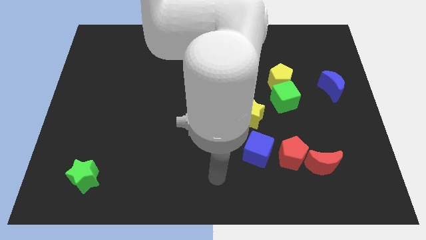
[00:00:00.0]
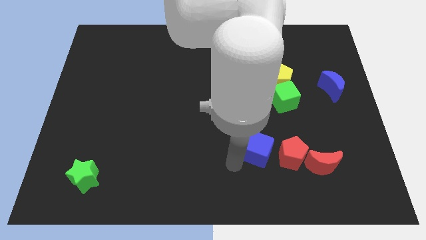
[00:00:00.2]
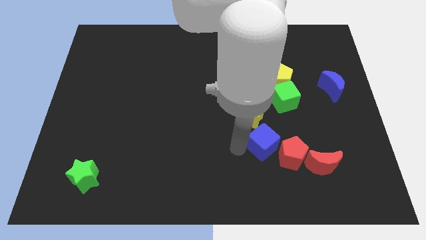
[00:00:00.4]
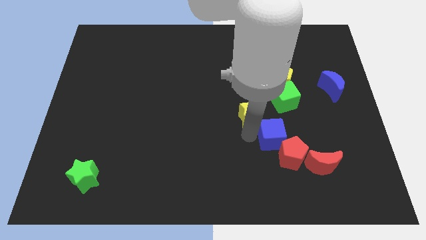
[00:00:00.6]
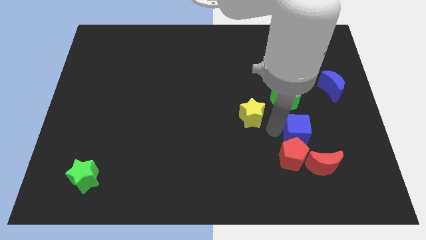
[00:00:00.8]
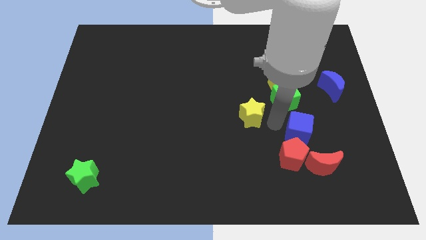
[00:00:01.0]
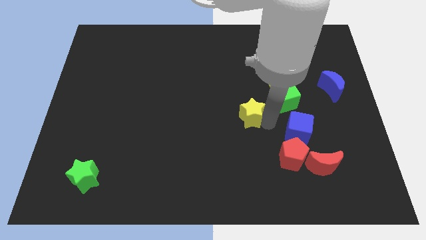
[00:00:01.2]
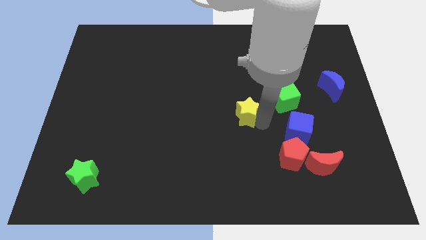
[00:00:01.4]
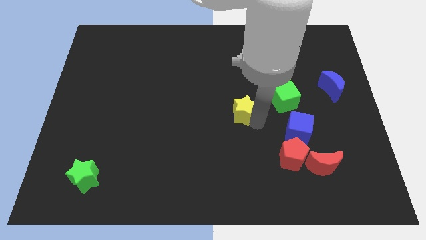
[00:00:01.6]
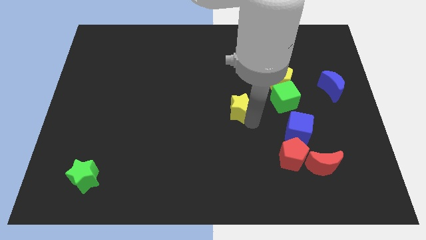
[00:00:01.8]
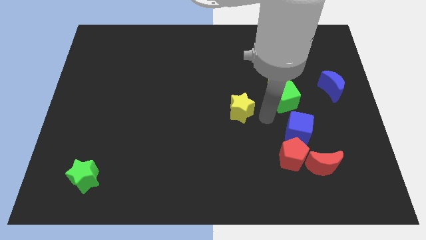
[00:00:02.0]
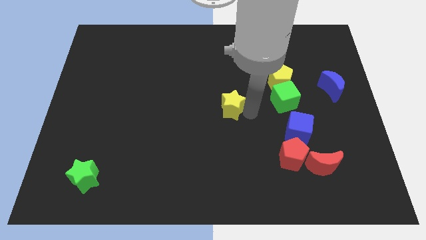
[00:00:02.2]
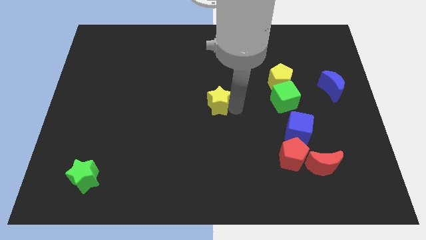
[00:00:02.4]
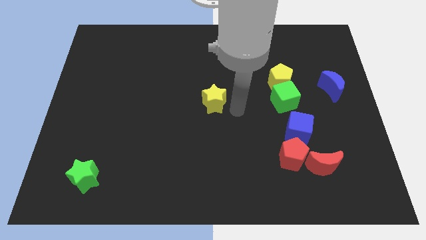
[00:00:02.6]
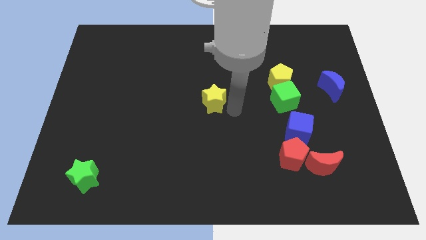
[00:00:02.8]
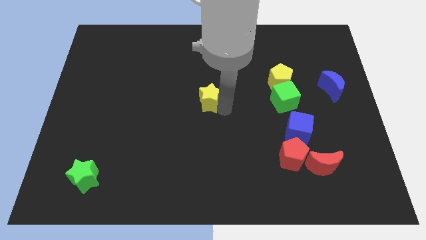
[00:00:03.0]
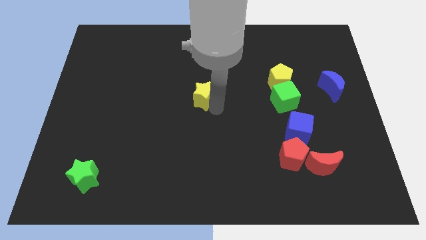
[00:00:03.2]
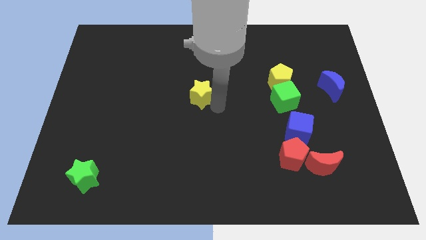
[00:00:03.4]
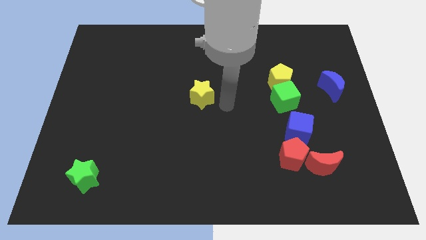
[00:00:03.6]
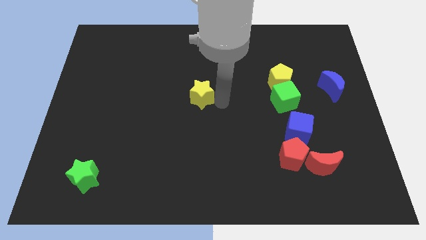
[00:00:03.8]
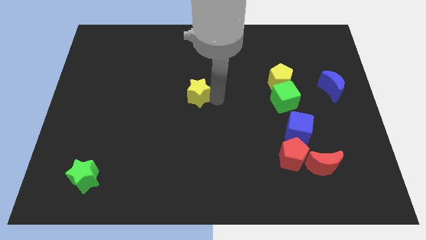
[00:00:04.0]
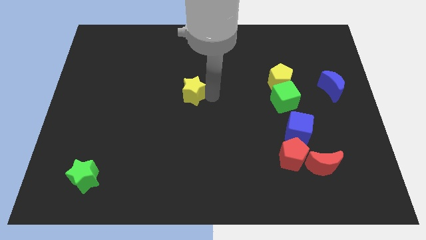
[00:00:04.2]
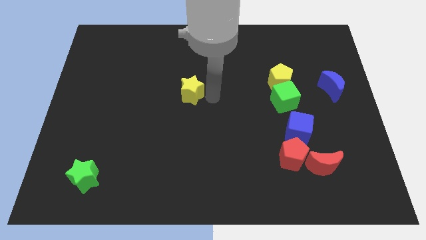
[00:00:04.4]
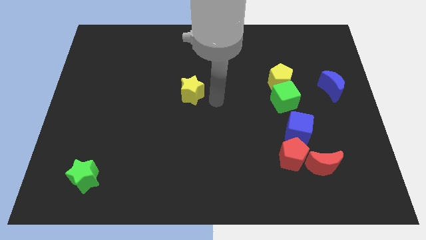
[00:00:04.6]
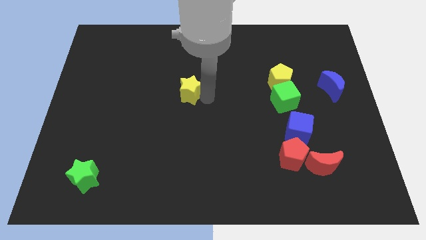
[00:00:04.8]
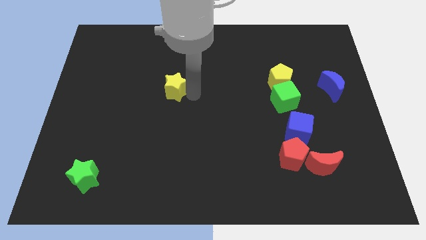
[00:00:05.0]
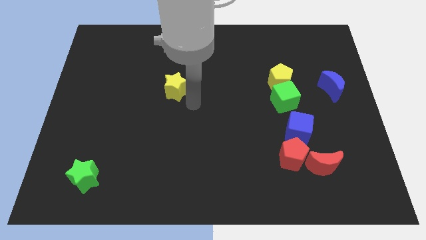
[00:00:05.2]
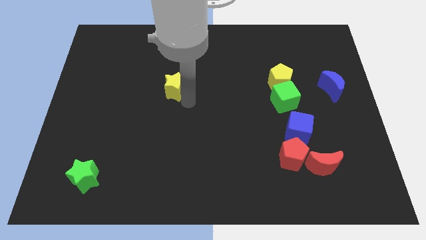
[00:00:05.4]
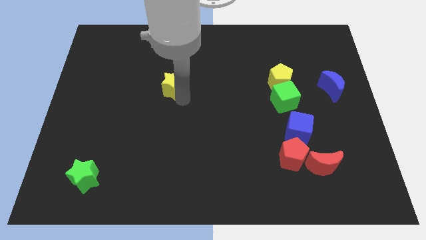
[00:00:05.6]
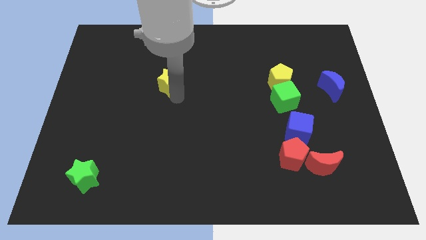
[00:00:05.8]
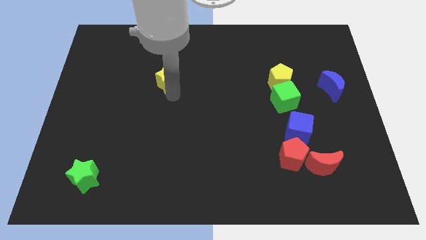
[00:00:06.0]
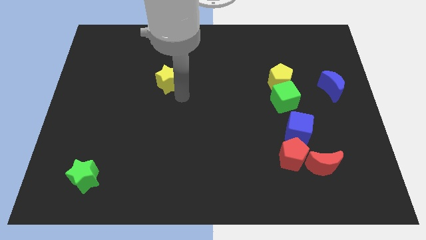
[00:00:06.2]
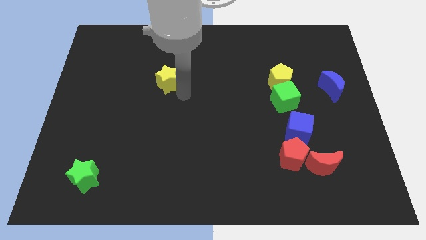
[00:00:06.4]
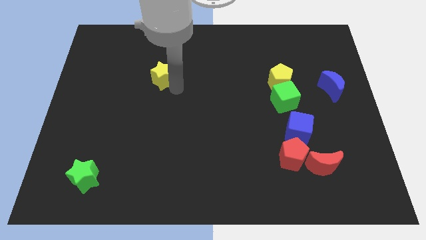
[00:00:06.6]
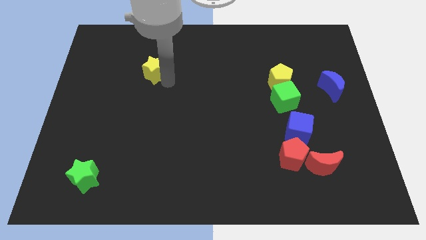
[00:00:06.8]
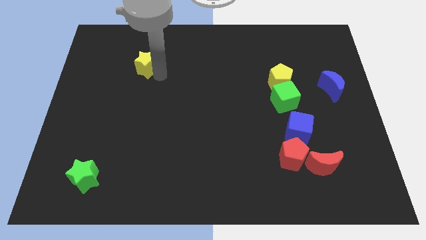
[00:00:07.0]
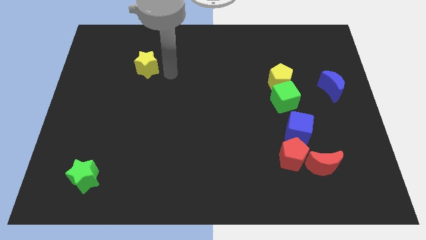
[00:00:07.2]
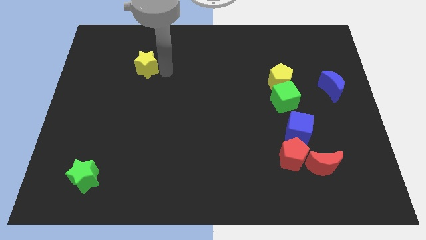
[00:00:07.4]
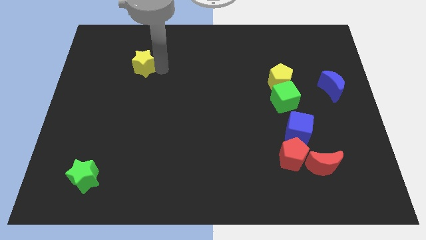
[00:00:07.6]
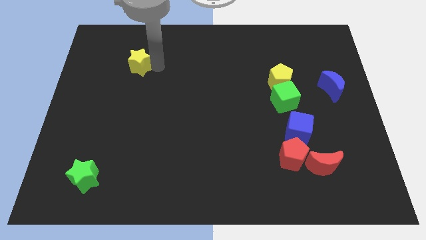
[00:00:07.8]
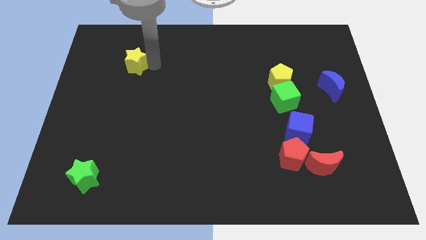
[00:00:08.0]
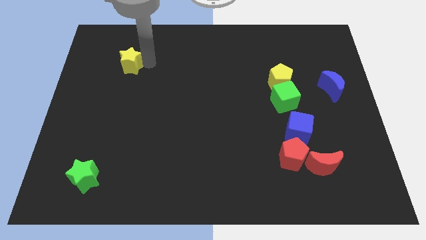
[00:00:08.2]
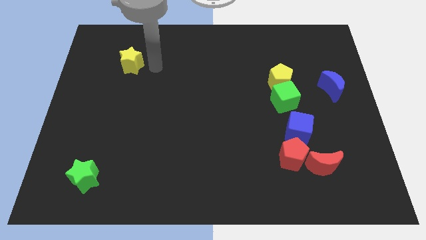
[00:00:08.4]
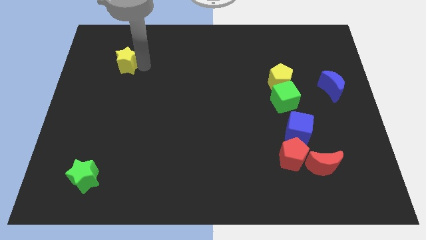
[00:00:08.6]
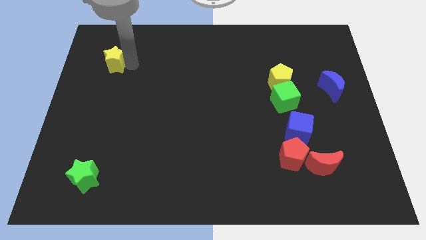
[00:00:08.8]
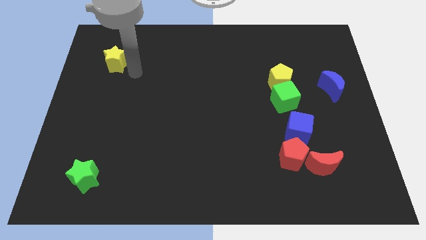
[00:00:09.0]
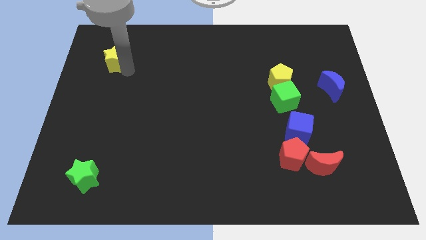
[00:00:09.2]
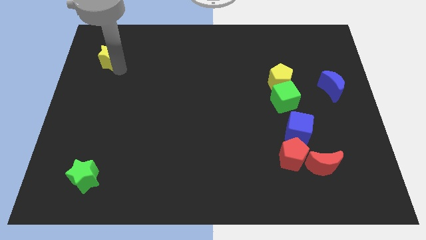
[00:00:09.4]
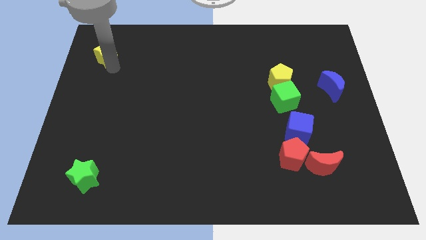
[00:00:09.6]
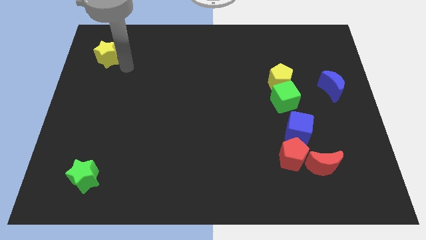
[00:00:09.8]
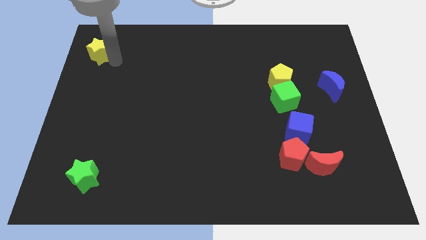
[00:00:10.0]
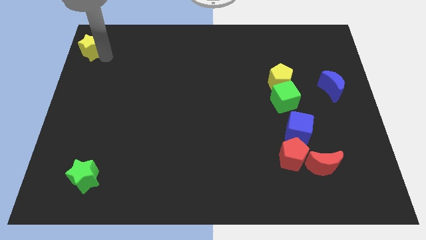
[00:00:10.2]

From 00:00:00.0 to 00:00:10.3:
push the yellow star to the upper left corner

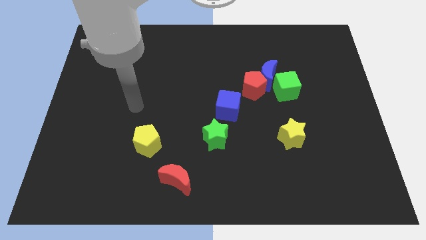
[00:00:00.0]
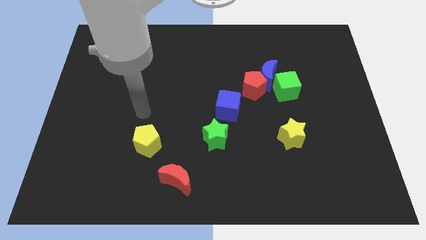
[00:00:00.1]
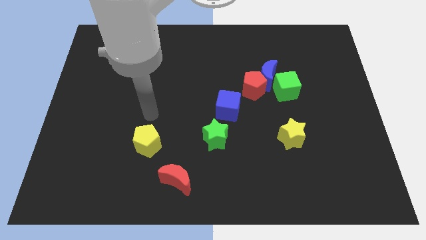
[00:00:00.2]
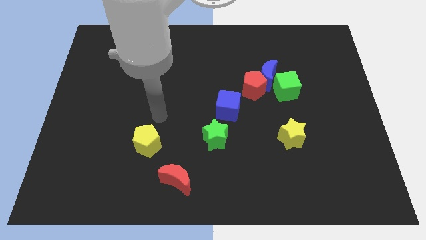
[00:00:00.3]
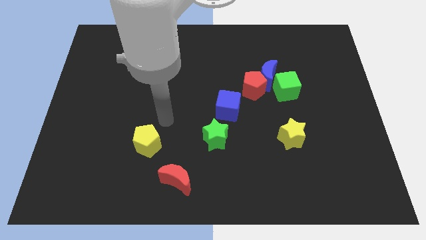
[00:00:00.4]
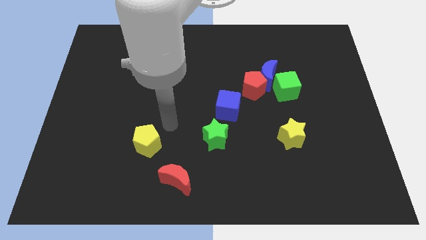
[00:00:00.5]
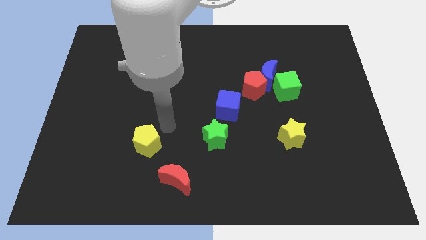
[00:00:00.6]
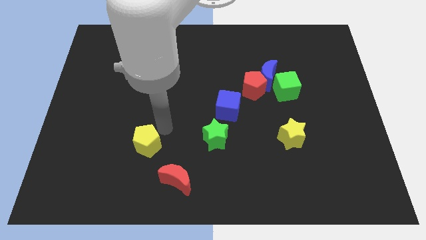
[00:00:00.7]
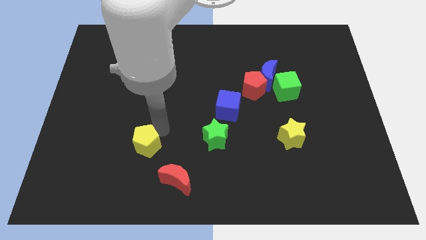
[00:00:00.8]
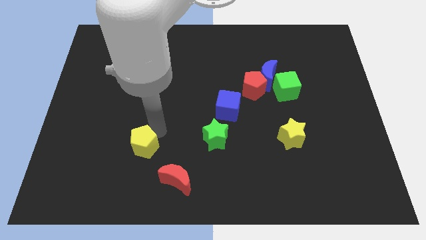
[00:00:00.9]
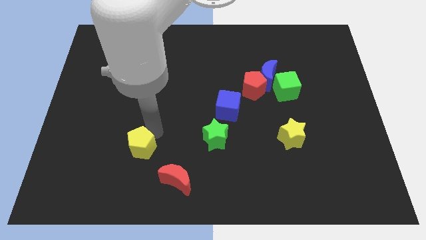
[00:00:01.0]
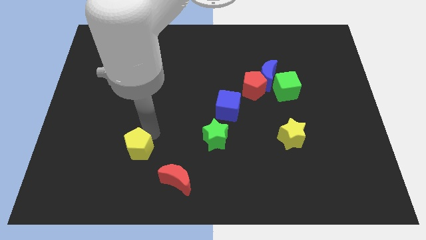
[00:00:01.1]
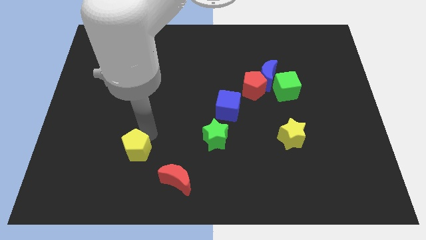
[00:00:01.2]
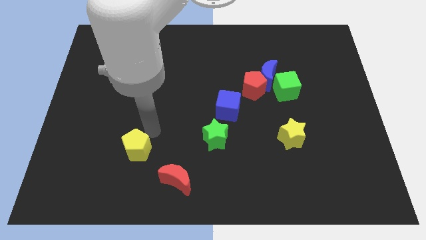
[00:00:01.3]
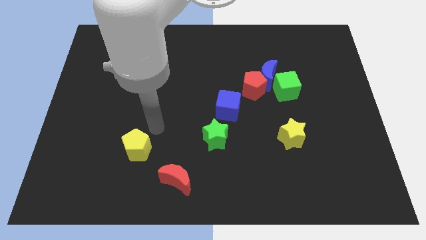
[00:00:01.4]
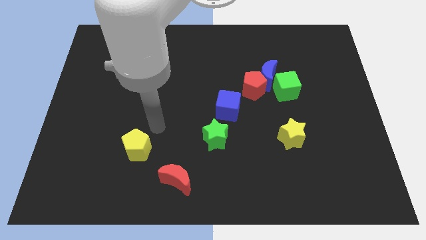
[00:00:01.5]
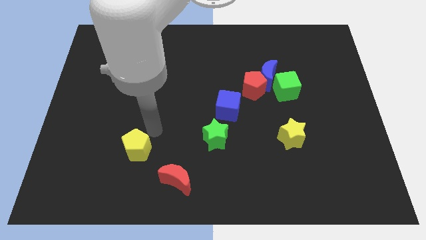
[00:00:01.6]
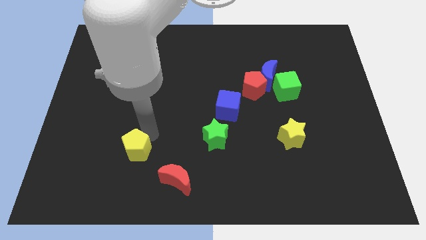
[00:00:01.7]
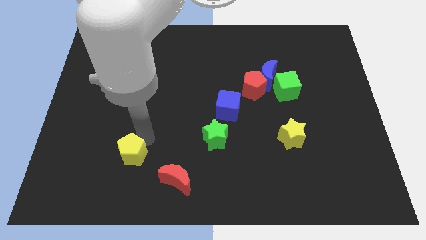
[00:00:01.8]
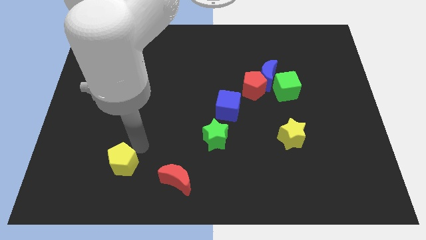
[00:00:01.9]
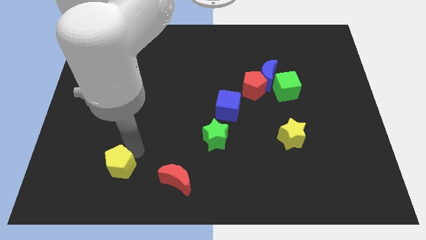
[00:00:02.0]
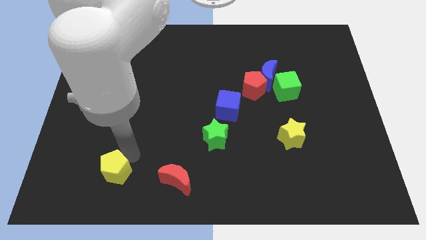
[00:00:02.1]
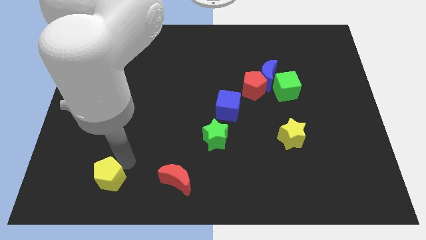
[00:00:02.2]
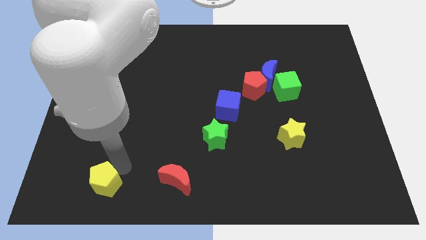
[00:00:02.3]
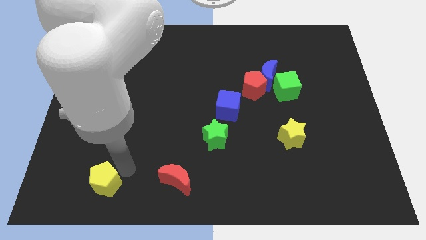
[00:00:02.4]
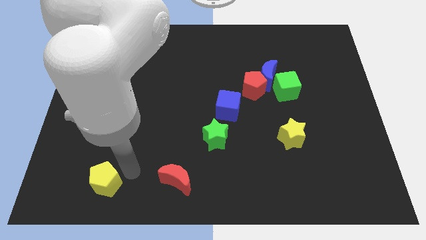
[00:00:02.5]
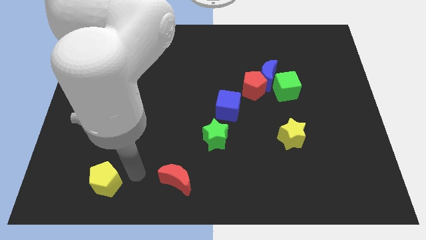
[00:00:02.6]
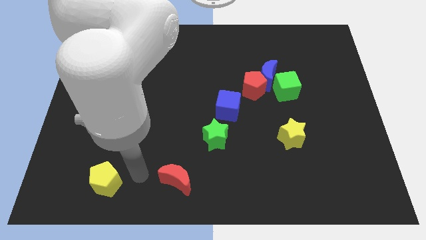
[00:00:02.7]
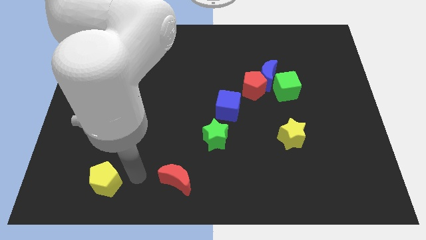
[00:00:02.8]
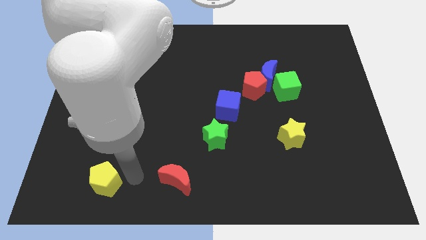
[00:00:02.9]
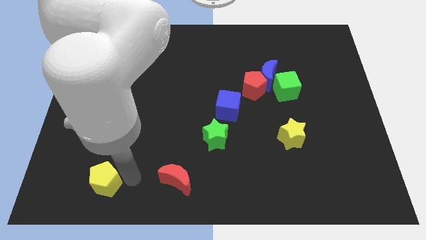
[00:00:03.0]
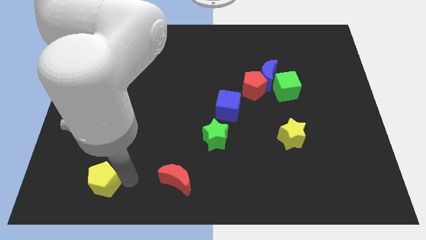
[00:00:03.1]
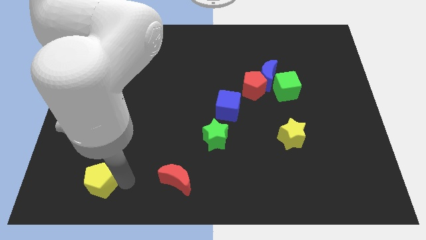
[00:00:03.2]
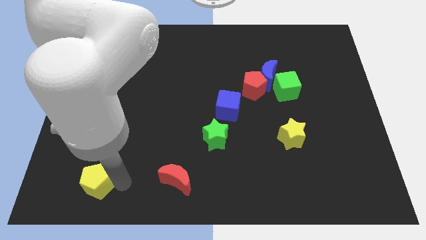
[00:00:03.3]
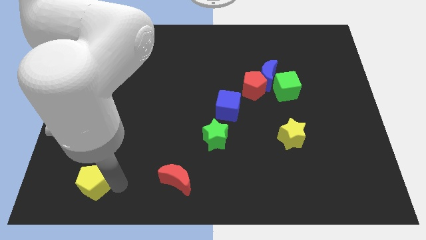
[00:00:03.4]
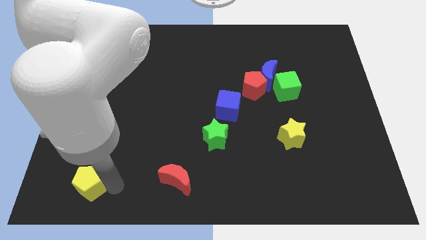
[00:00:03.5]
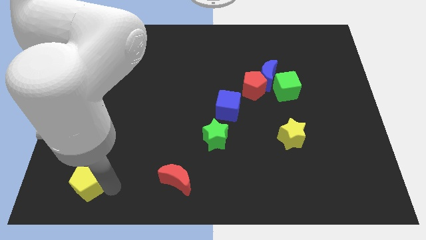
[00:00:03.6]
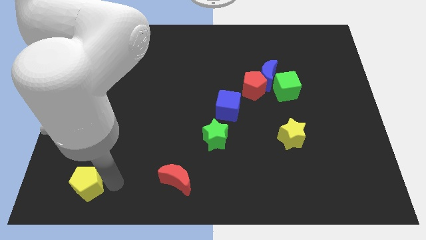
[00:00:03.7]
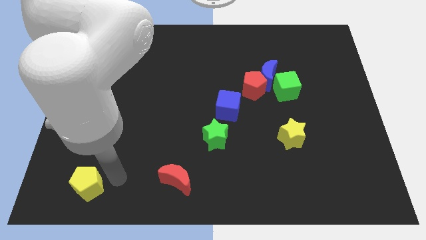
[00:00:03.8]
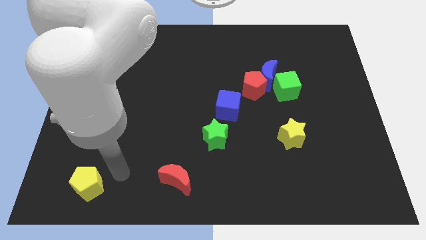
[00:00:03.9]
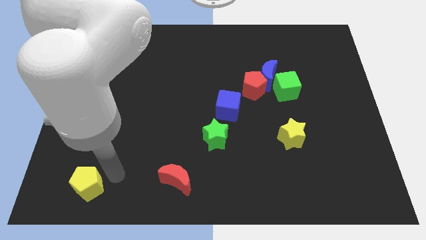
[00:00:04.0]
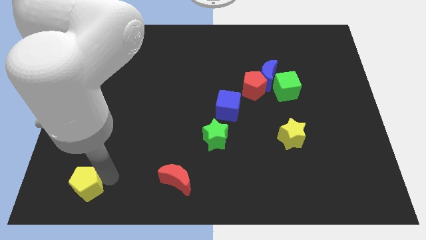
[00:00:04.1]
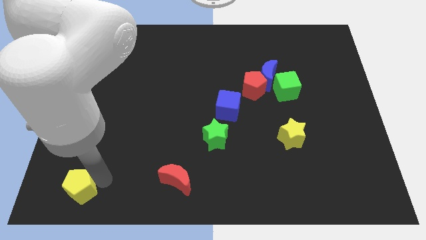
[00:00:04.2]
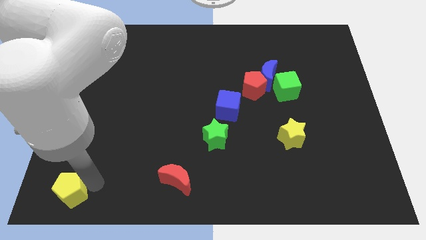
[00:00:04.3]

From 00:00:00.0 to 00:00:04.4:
put the yellow pentagon to the bottom left corner
